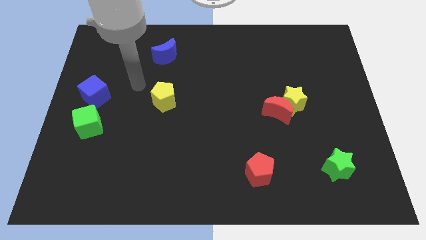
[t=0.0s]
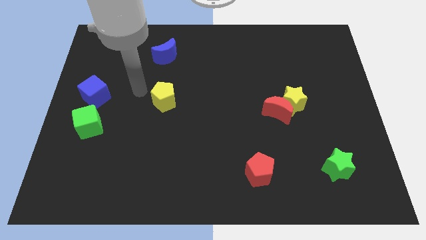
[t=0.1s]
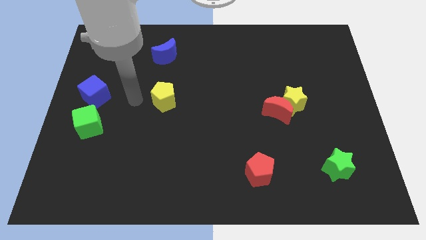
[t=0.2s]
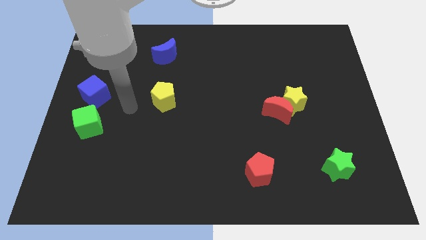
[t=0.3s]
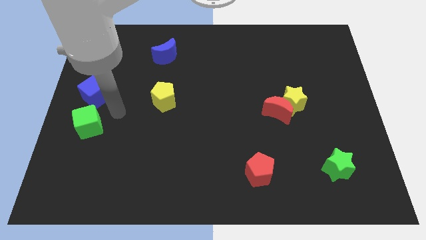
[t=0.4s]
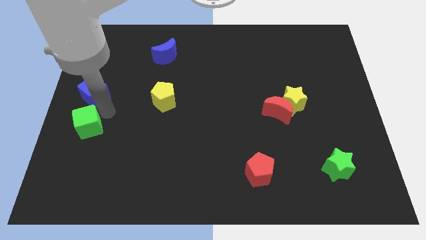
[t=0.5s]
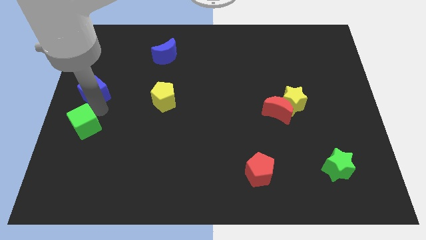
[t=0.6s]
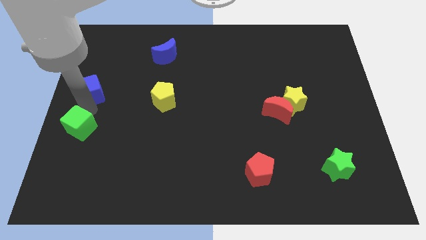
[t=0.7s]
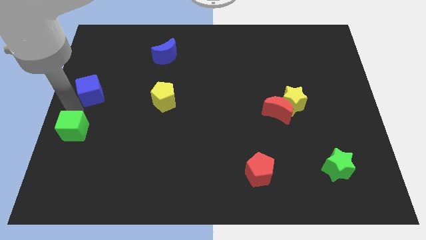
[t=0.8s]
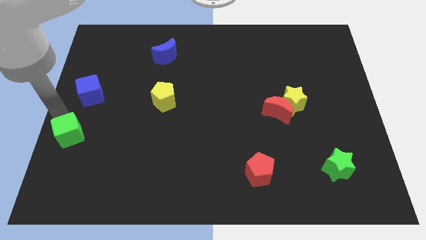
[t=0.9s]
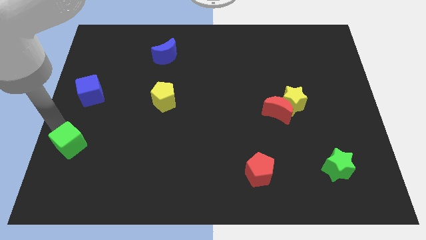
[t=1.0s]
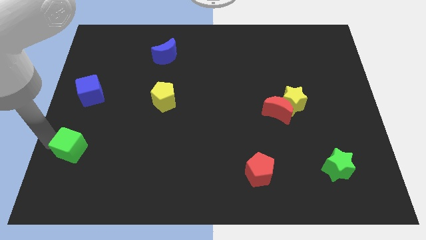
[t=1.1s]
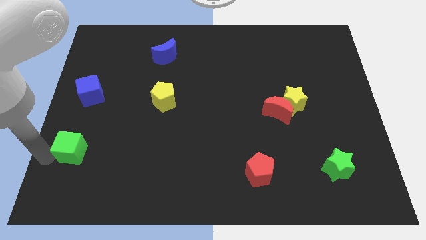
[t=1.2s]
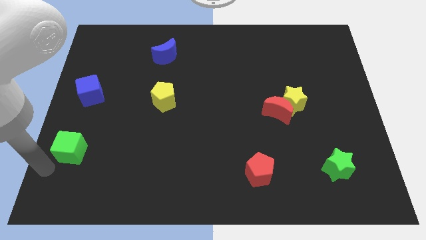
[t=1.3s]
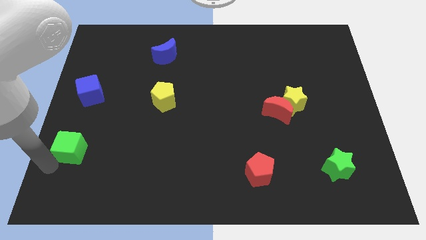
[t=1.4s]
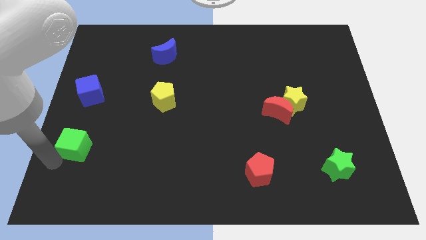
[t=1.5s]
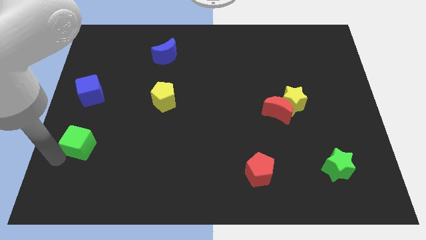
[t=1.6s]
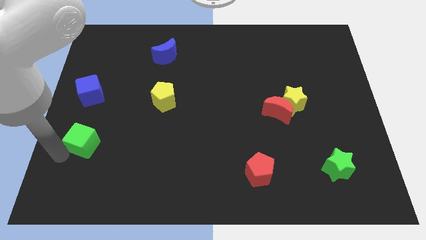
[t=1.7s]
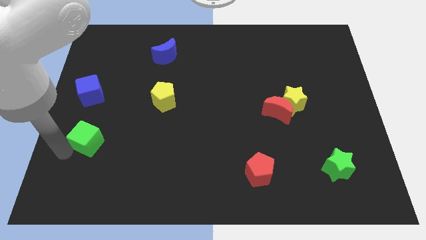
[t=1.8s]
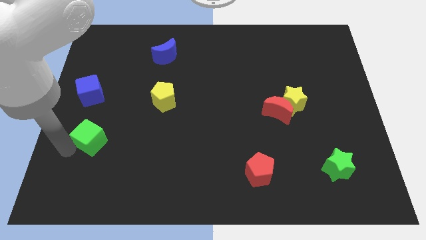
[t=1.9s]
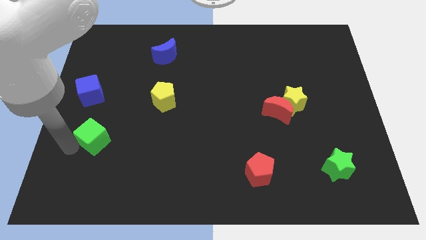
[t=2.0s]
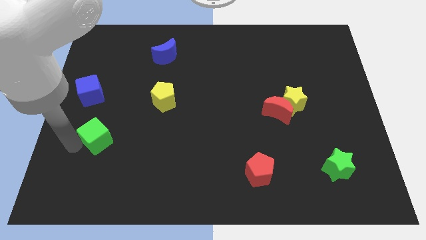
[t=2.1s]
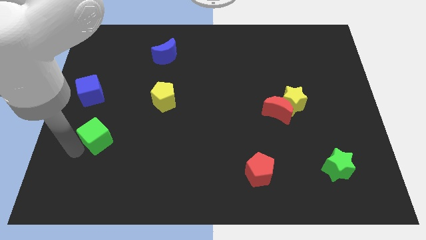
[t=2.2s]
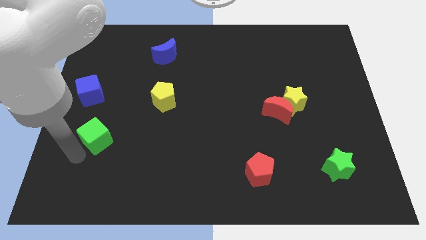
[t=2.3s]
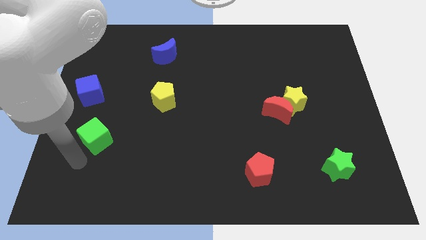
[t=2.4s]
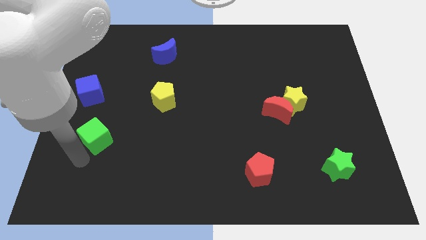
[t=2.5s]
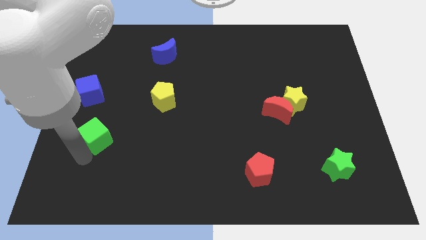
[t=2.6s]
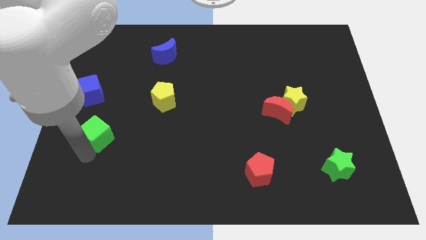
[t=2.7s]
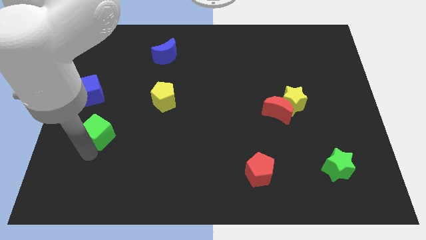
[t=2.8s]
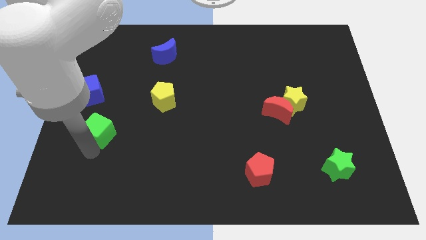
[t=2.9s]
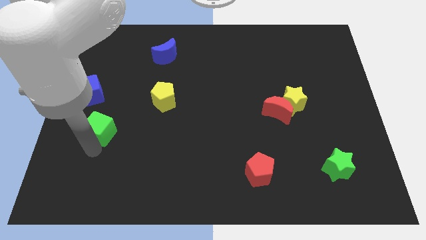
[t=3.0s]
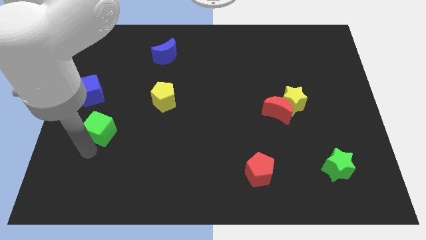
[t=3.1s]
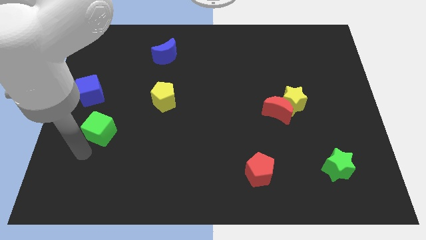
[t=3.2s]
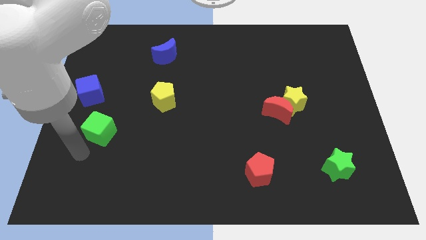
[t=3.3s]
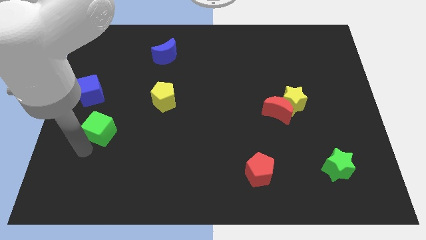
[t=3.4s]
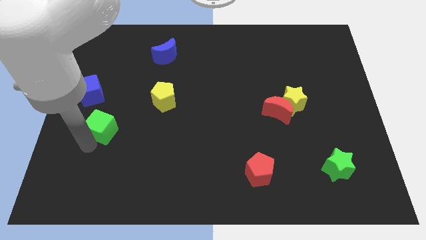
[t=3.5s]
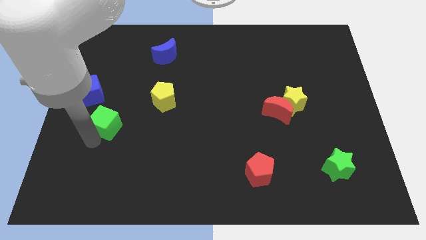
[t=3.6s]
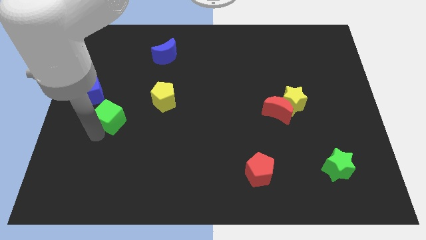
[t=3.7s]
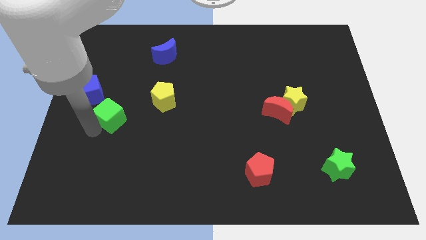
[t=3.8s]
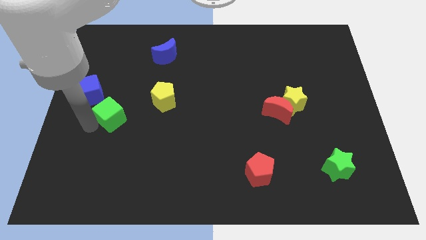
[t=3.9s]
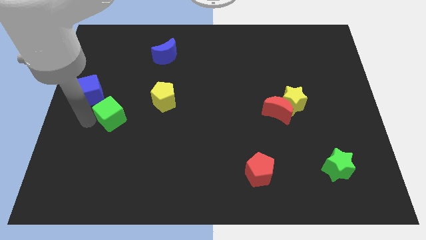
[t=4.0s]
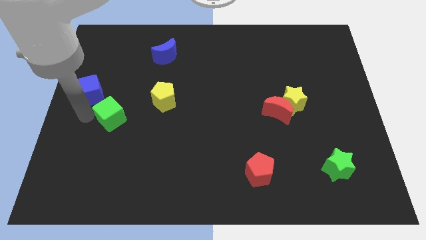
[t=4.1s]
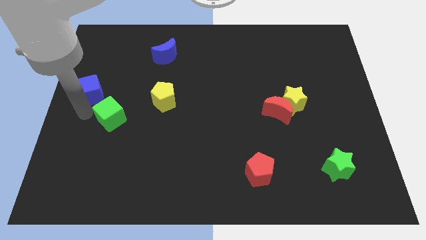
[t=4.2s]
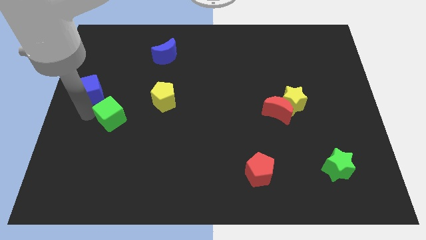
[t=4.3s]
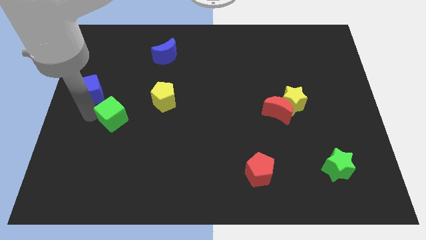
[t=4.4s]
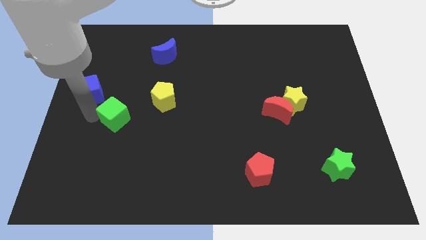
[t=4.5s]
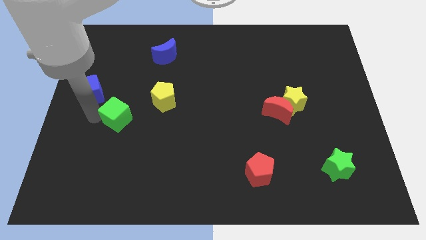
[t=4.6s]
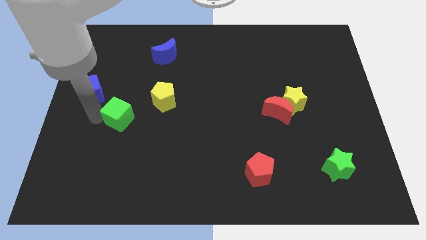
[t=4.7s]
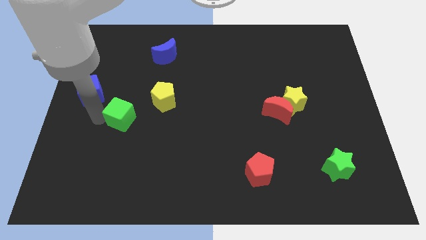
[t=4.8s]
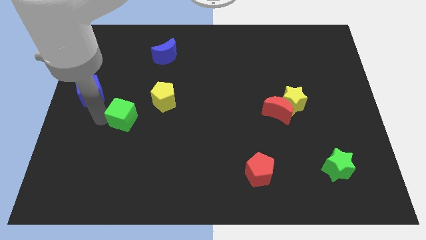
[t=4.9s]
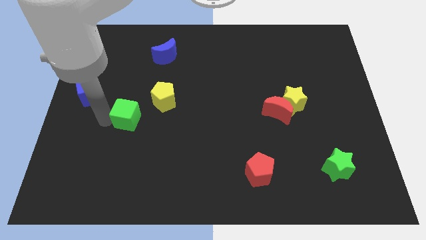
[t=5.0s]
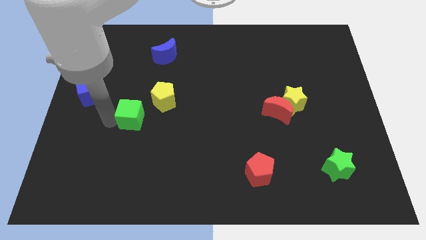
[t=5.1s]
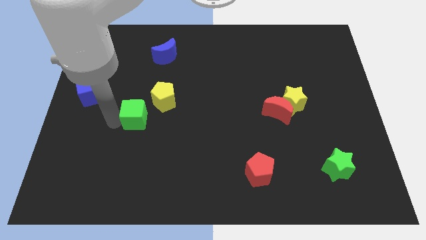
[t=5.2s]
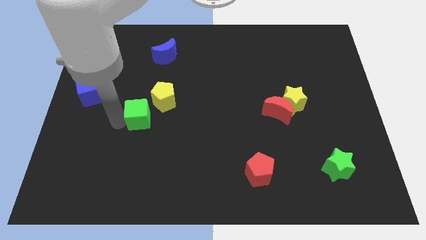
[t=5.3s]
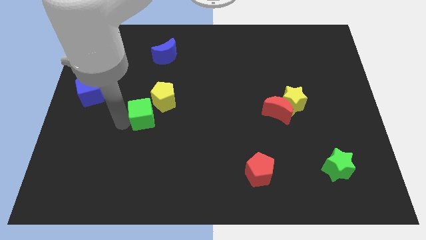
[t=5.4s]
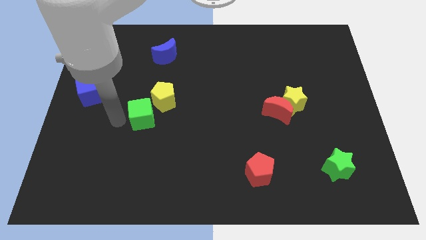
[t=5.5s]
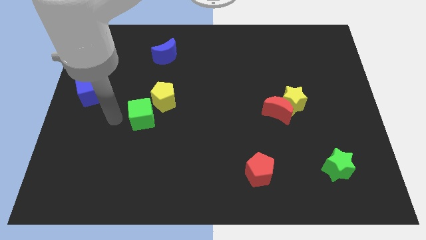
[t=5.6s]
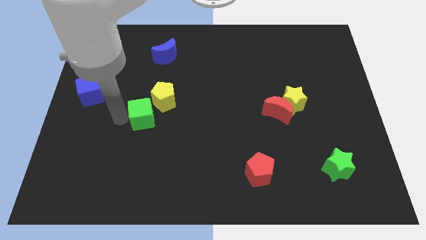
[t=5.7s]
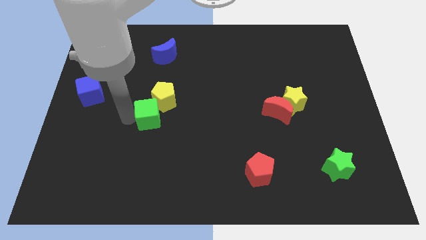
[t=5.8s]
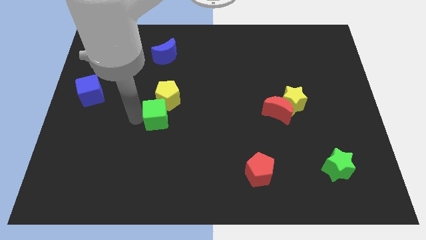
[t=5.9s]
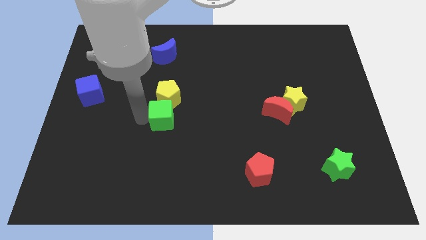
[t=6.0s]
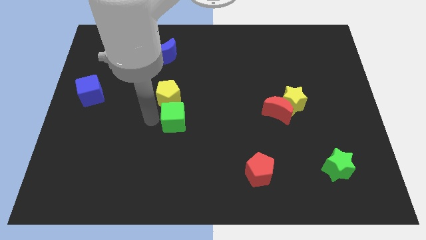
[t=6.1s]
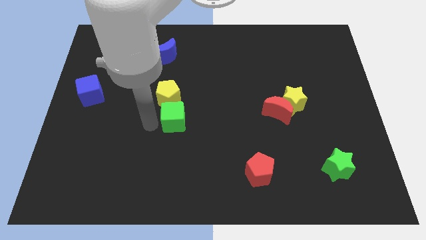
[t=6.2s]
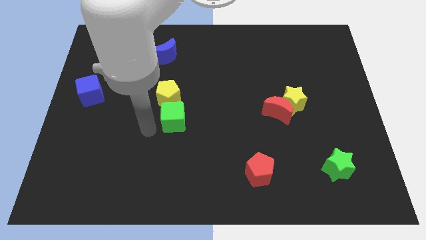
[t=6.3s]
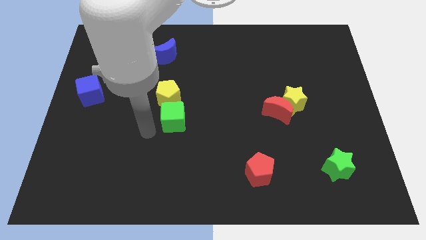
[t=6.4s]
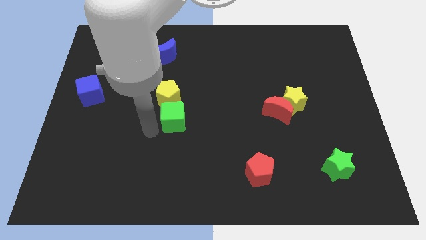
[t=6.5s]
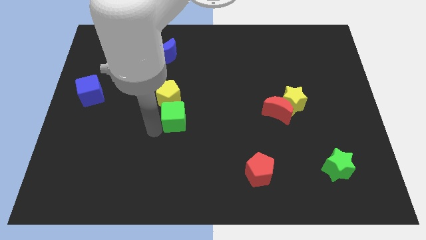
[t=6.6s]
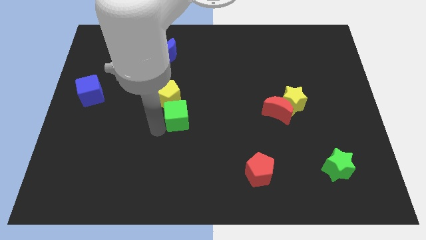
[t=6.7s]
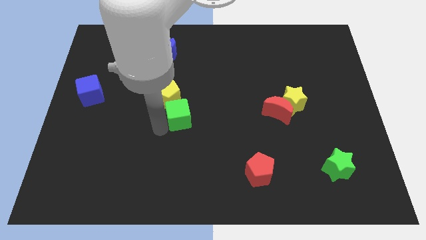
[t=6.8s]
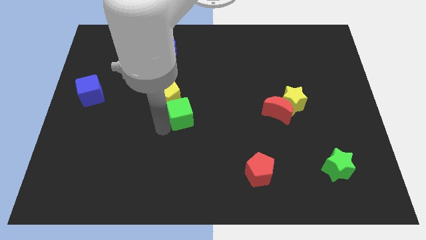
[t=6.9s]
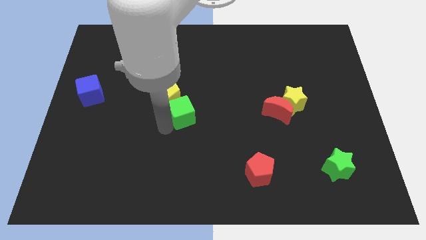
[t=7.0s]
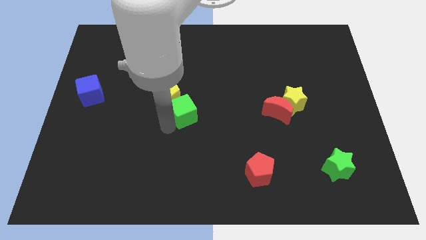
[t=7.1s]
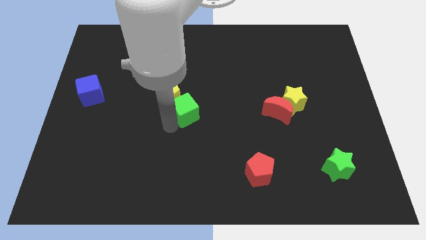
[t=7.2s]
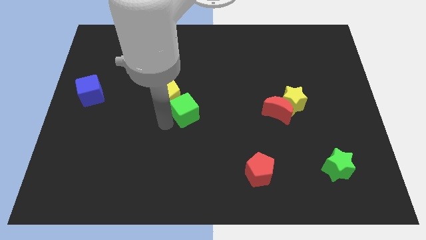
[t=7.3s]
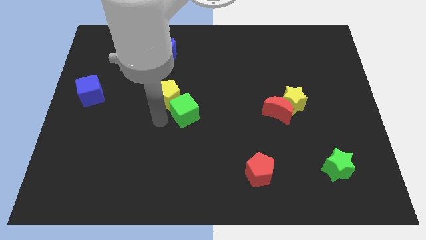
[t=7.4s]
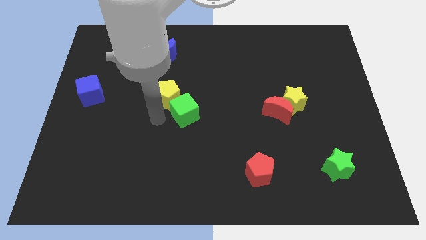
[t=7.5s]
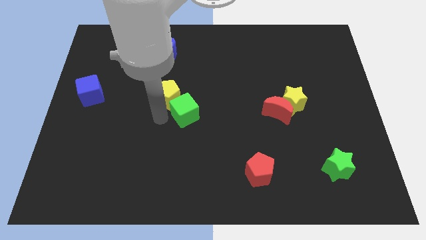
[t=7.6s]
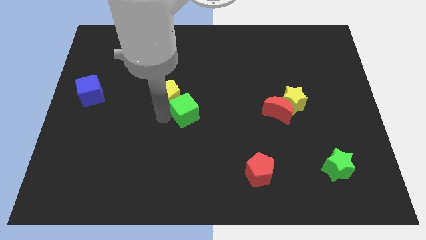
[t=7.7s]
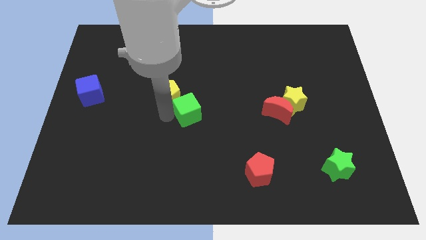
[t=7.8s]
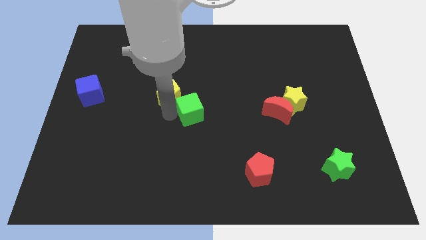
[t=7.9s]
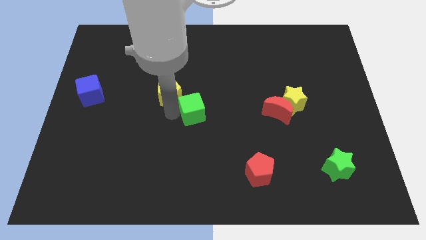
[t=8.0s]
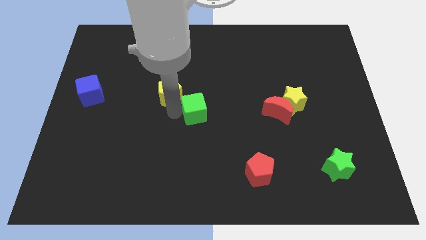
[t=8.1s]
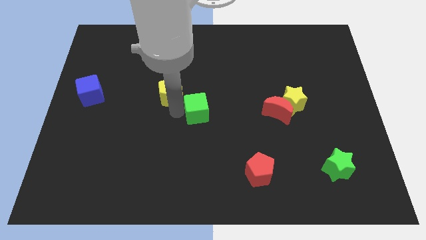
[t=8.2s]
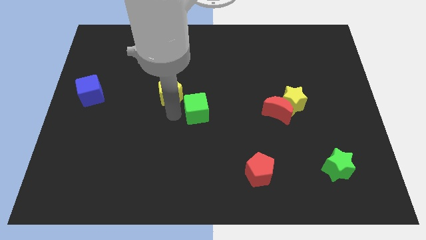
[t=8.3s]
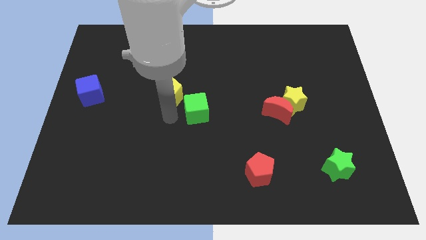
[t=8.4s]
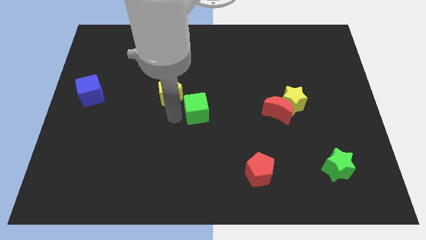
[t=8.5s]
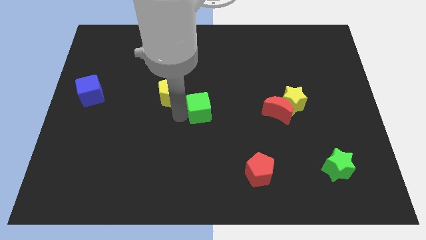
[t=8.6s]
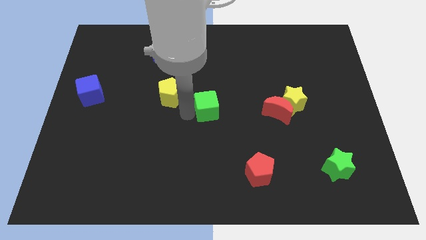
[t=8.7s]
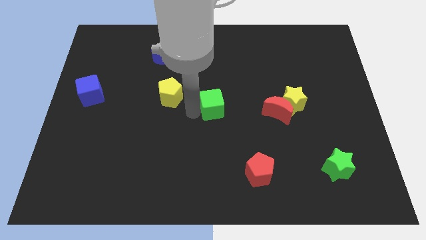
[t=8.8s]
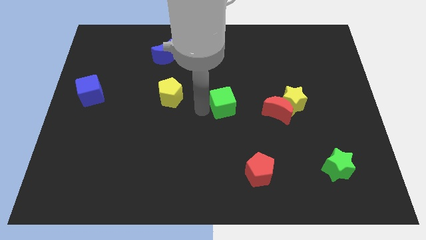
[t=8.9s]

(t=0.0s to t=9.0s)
move the green cube just left of the yellow star
